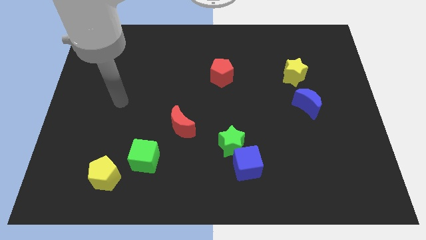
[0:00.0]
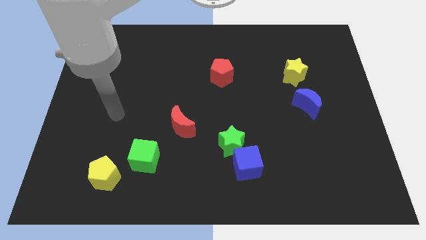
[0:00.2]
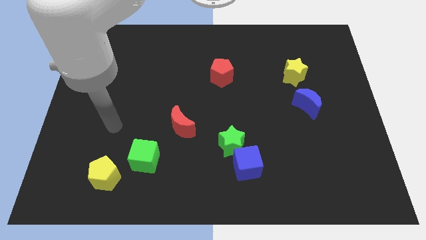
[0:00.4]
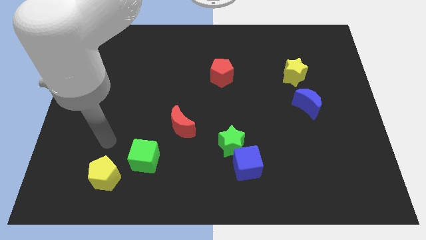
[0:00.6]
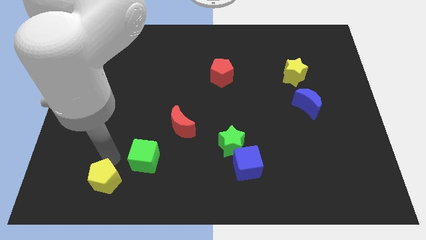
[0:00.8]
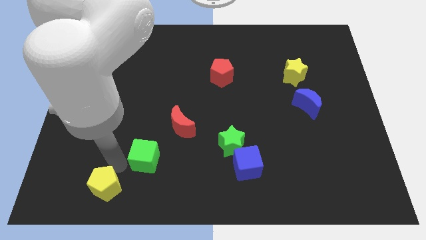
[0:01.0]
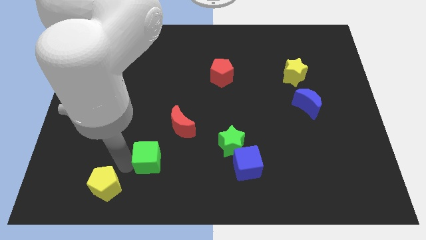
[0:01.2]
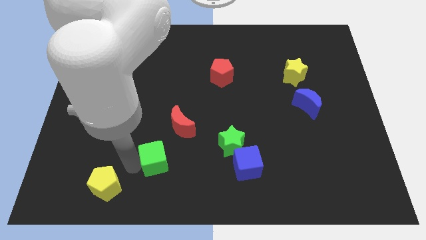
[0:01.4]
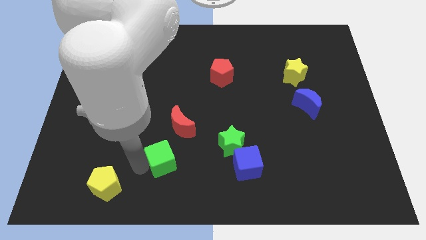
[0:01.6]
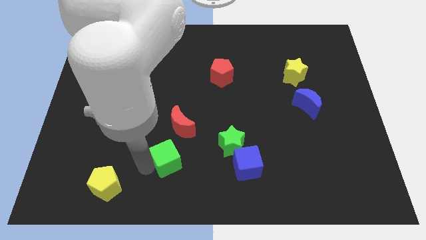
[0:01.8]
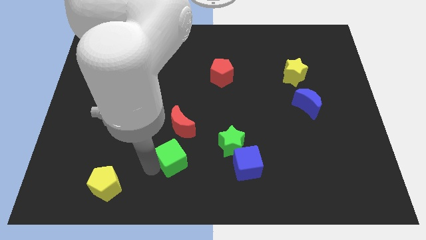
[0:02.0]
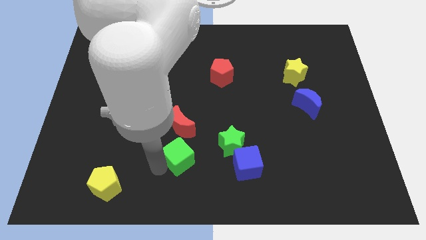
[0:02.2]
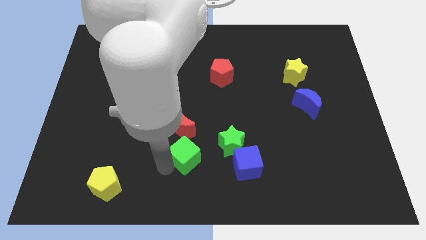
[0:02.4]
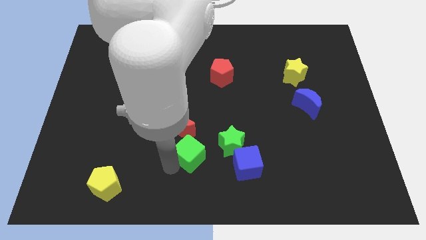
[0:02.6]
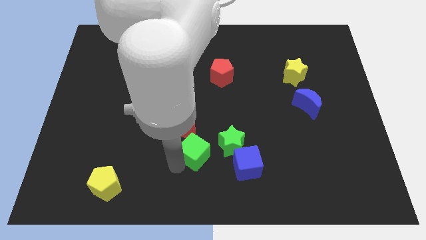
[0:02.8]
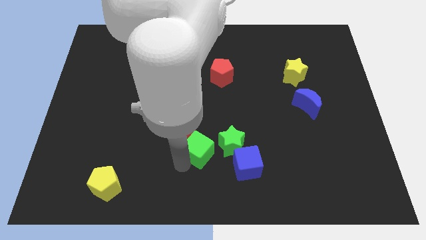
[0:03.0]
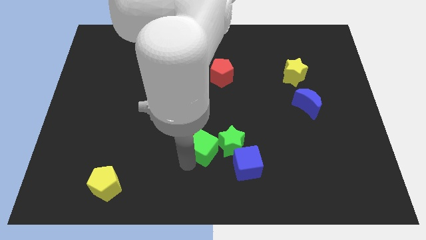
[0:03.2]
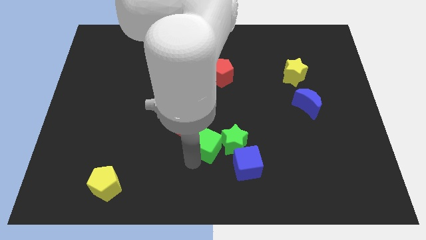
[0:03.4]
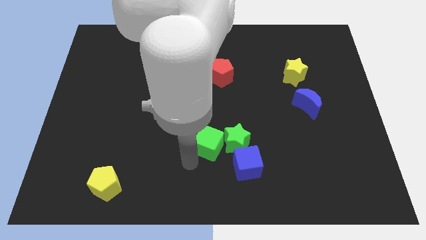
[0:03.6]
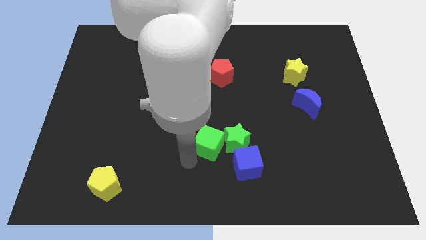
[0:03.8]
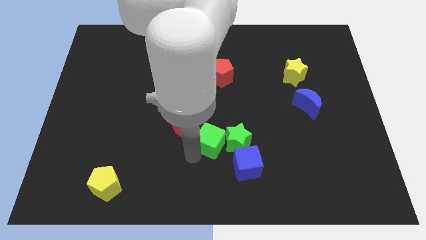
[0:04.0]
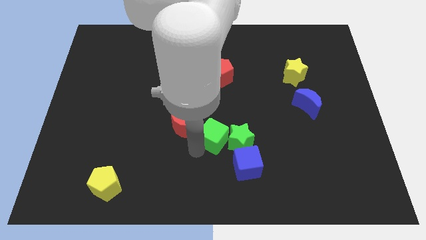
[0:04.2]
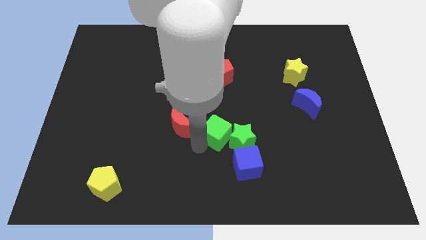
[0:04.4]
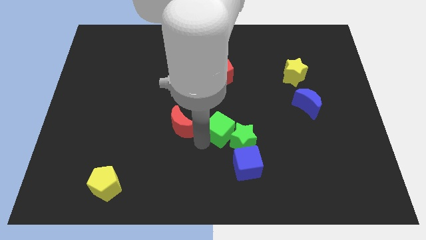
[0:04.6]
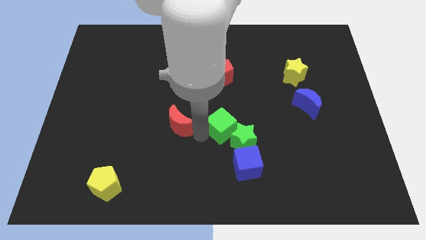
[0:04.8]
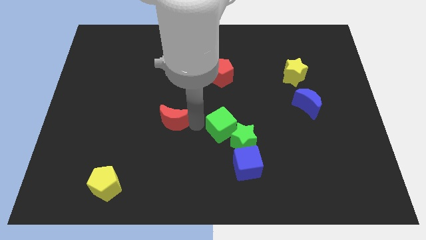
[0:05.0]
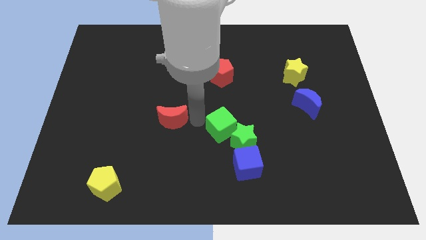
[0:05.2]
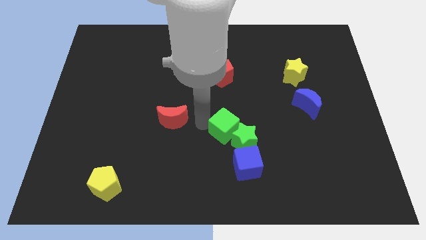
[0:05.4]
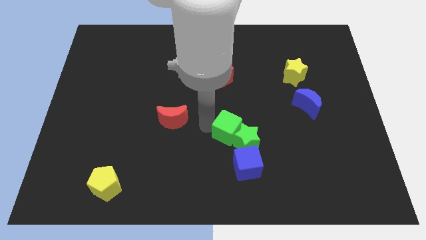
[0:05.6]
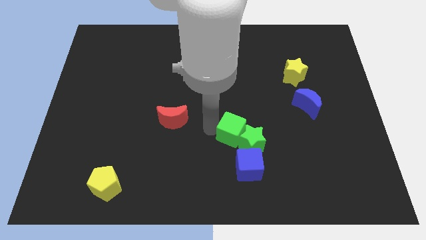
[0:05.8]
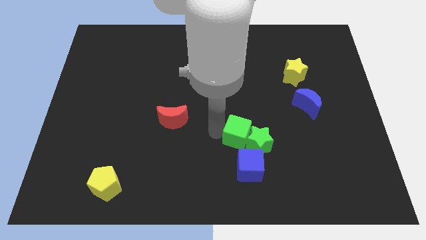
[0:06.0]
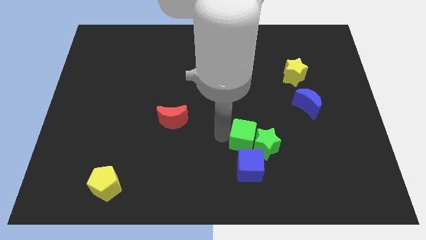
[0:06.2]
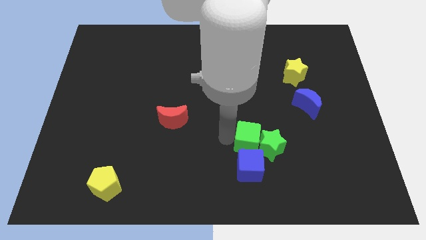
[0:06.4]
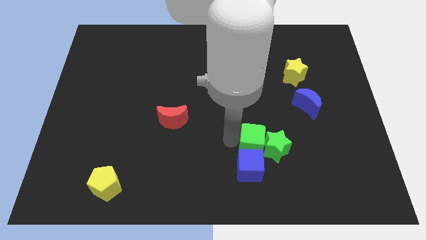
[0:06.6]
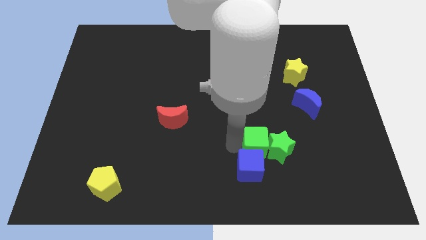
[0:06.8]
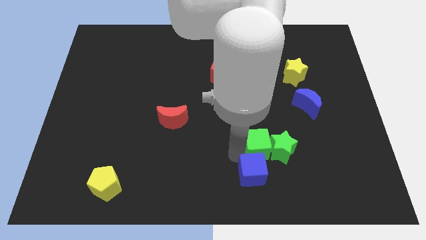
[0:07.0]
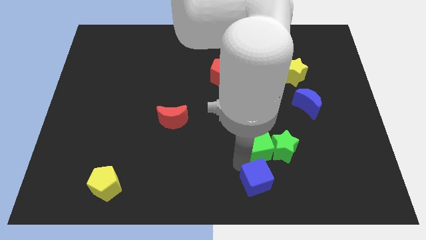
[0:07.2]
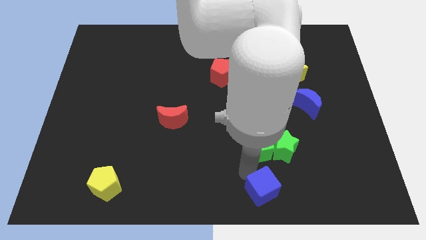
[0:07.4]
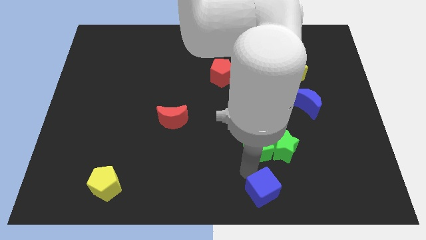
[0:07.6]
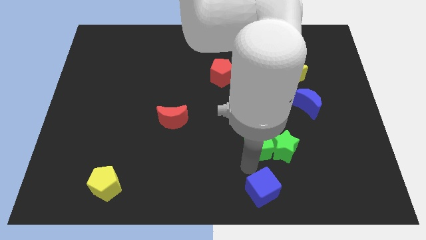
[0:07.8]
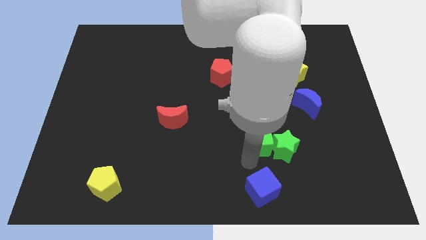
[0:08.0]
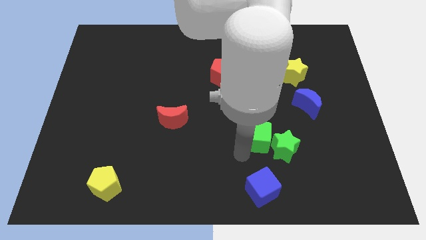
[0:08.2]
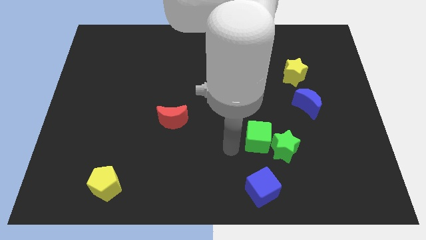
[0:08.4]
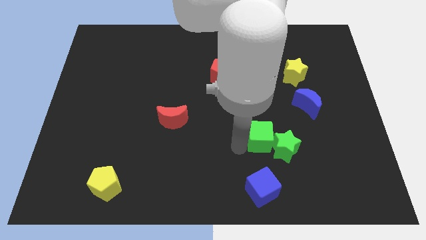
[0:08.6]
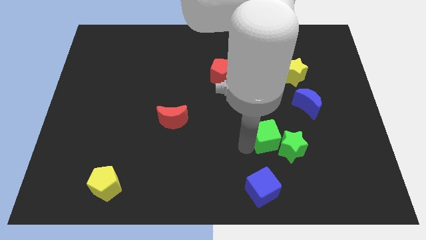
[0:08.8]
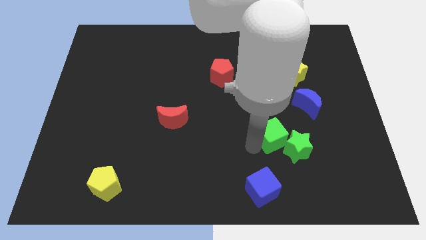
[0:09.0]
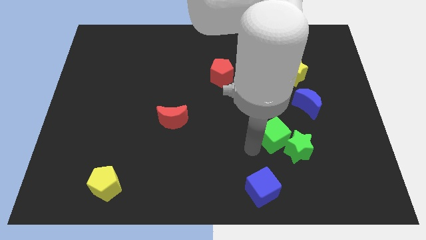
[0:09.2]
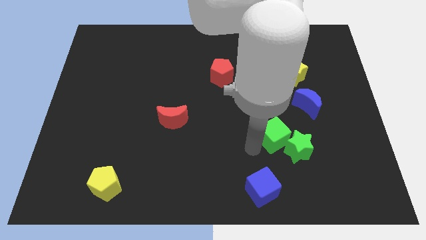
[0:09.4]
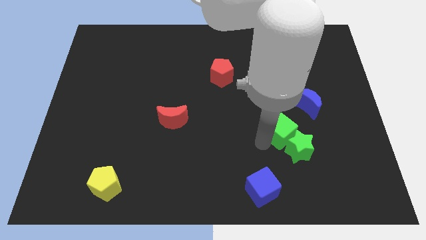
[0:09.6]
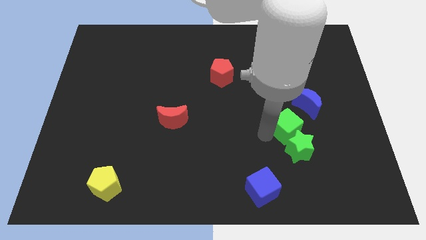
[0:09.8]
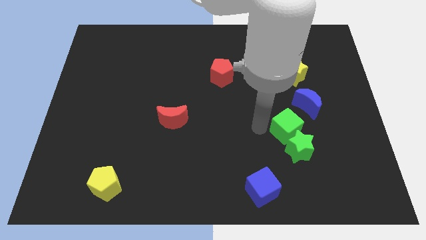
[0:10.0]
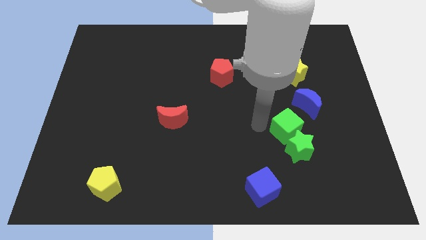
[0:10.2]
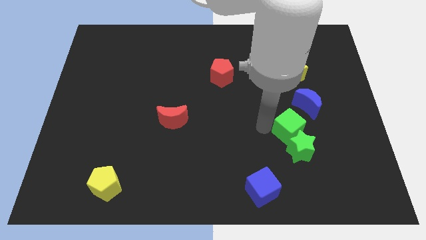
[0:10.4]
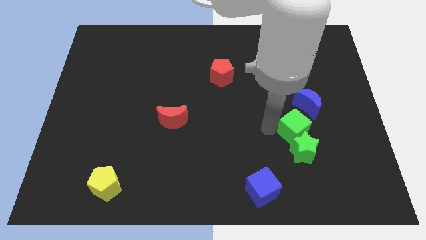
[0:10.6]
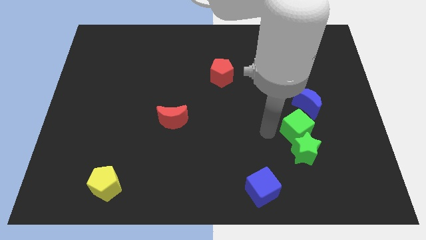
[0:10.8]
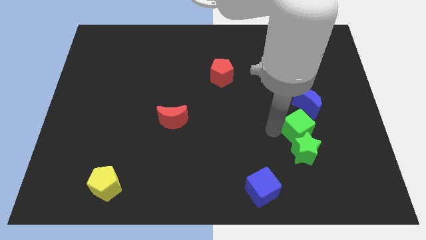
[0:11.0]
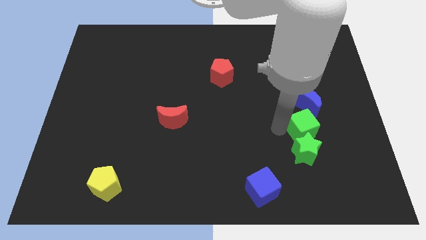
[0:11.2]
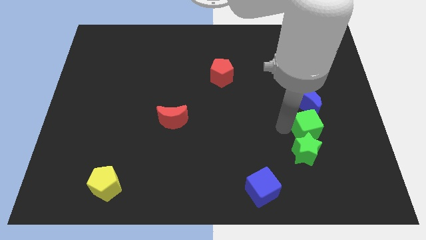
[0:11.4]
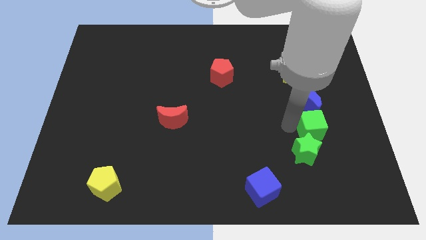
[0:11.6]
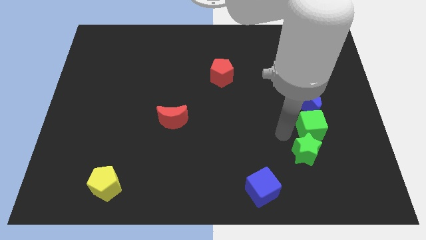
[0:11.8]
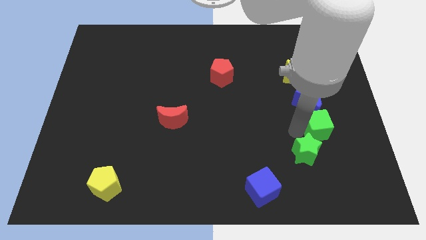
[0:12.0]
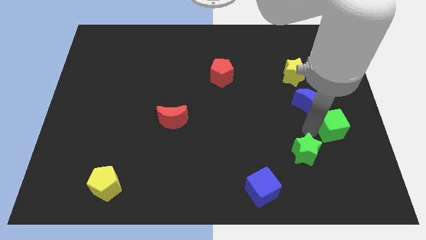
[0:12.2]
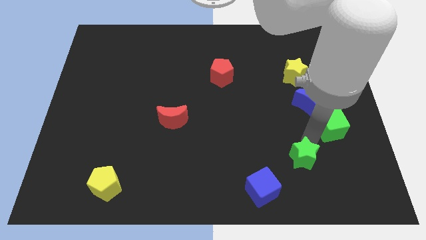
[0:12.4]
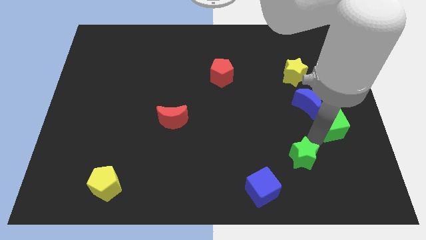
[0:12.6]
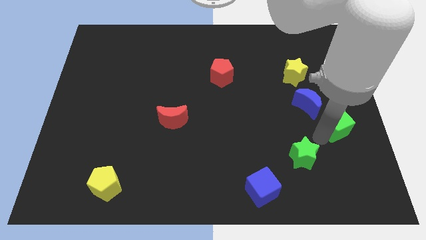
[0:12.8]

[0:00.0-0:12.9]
move the green cube to the right side of the board

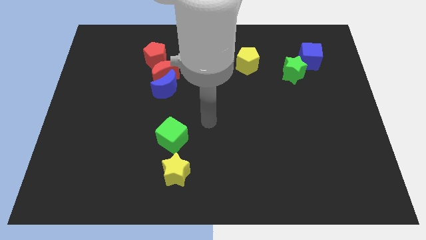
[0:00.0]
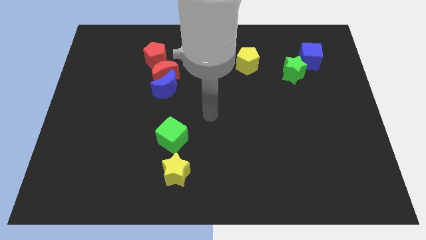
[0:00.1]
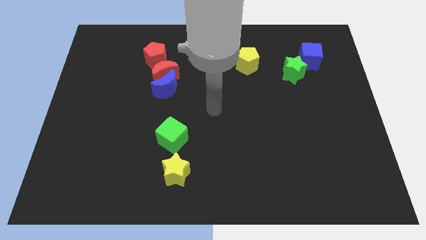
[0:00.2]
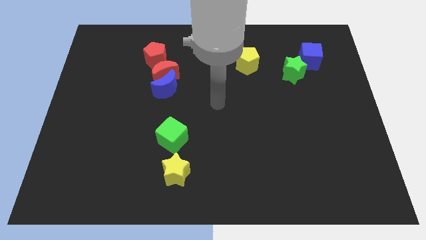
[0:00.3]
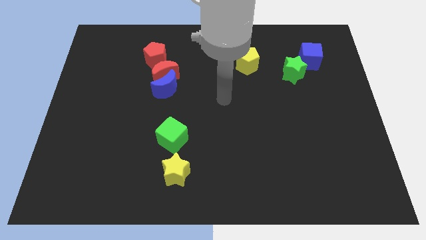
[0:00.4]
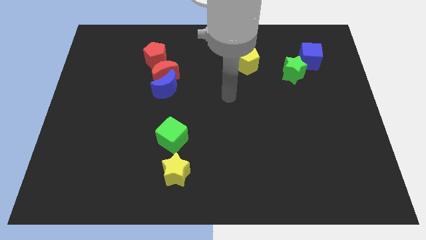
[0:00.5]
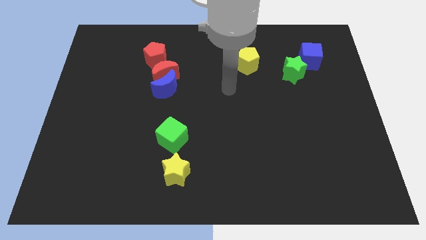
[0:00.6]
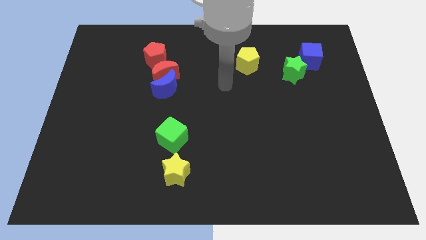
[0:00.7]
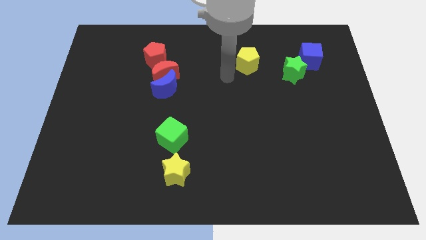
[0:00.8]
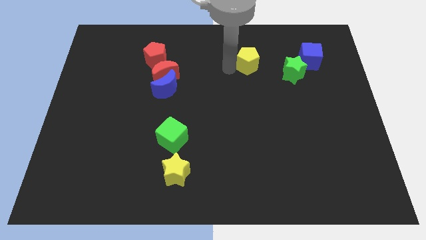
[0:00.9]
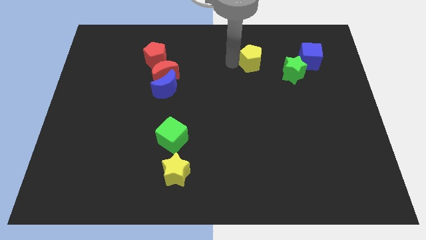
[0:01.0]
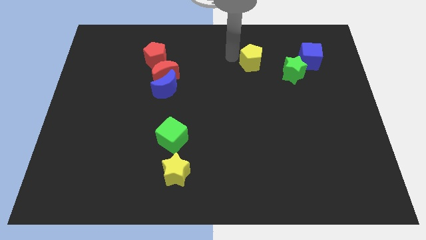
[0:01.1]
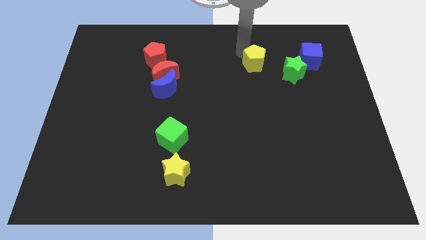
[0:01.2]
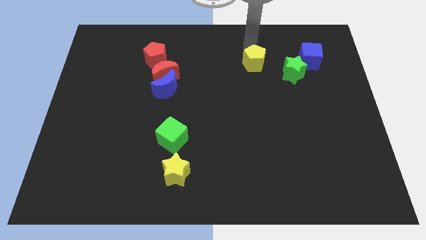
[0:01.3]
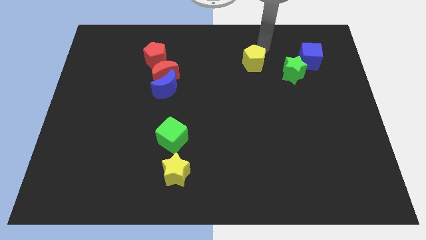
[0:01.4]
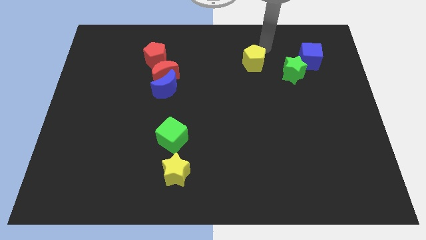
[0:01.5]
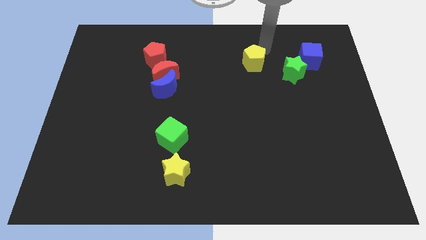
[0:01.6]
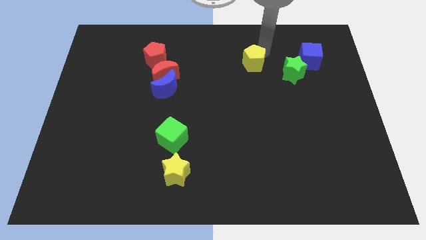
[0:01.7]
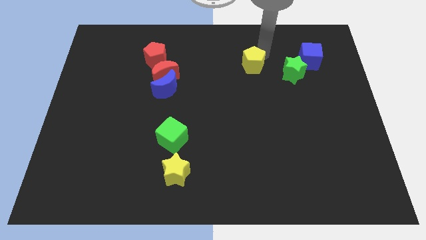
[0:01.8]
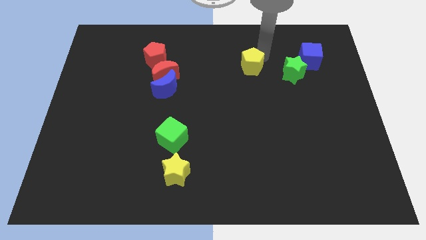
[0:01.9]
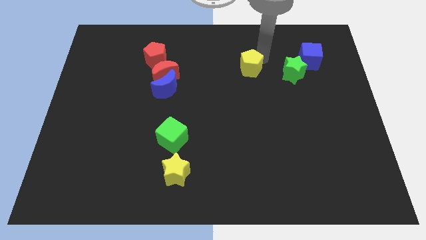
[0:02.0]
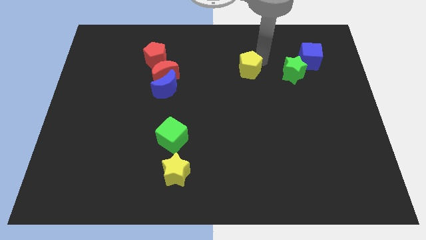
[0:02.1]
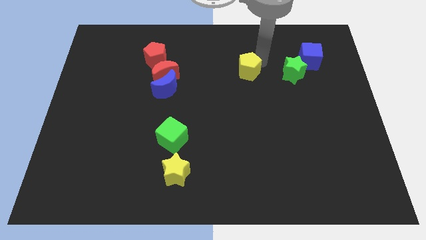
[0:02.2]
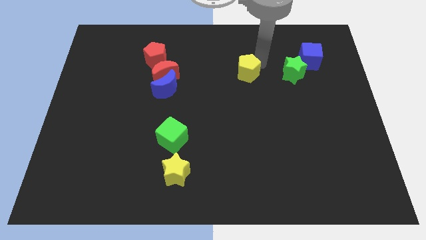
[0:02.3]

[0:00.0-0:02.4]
put the yellow pentagon to the middle of the board
